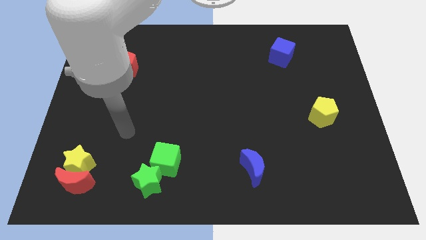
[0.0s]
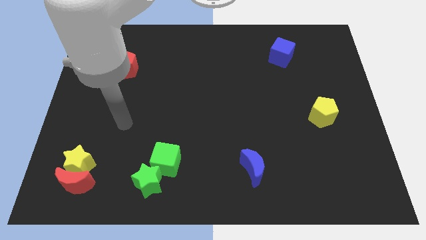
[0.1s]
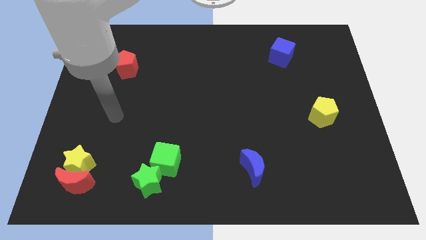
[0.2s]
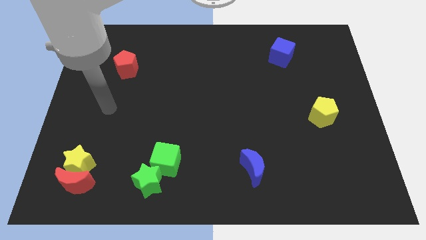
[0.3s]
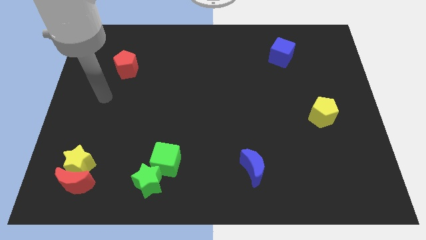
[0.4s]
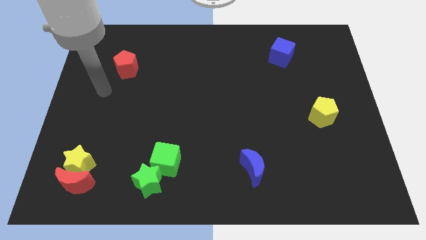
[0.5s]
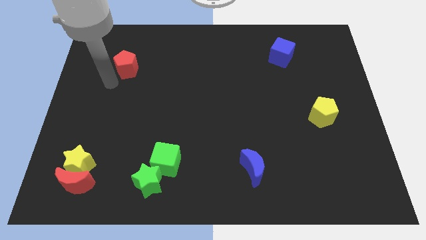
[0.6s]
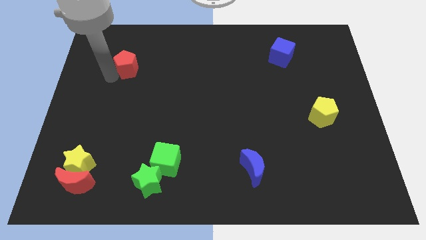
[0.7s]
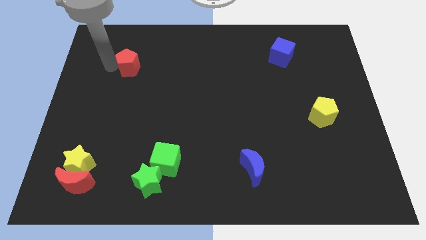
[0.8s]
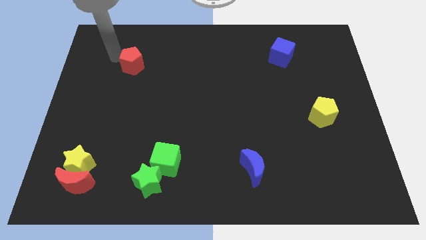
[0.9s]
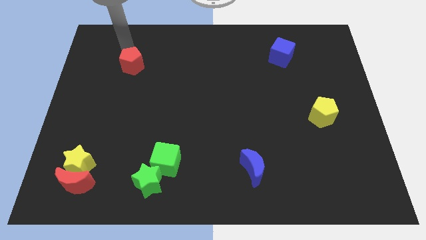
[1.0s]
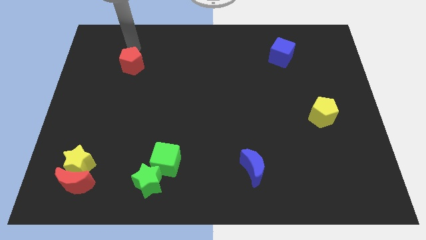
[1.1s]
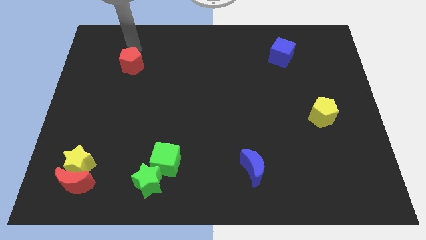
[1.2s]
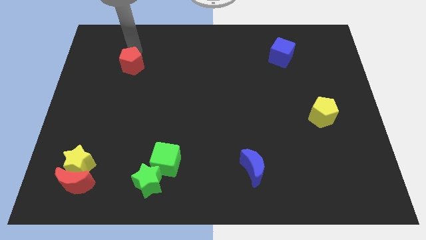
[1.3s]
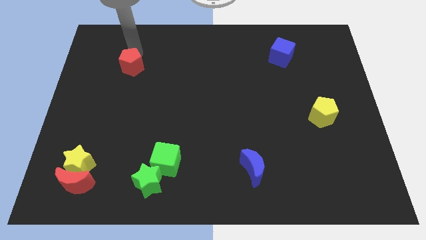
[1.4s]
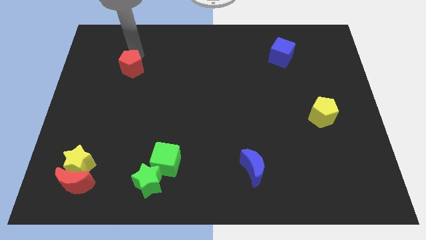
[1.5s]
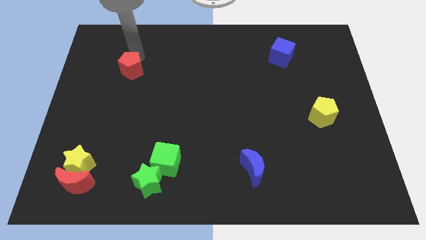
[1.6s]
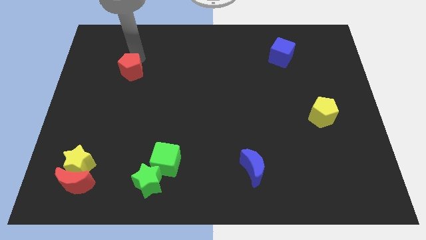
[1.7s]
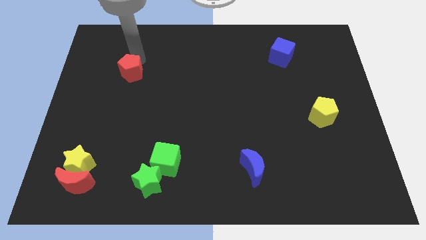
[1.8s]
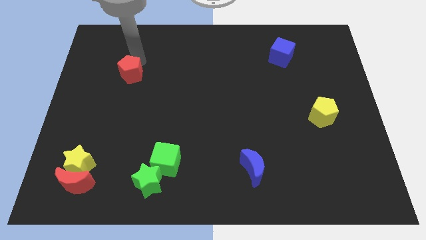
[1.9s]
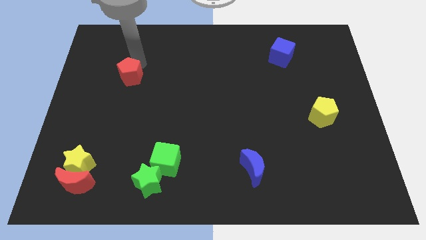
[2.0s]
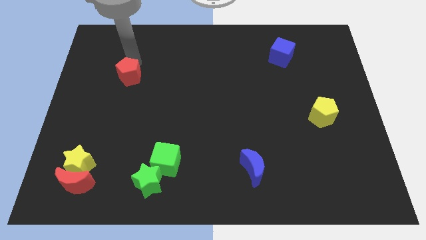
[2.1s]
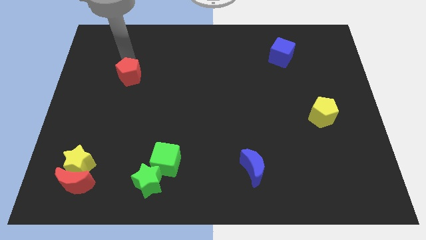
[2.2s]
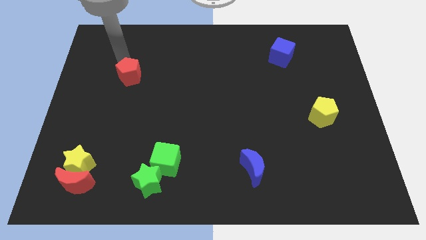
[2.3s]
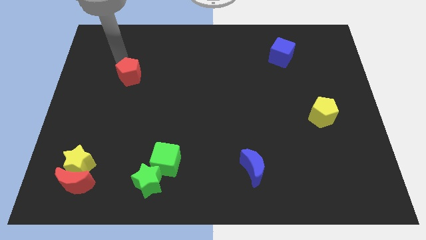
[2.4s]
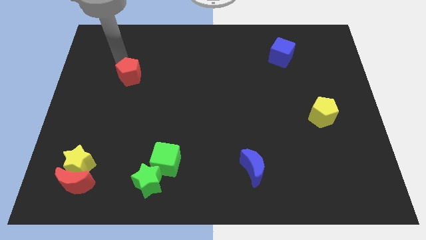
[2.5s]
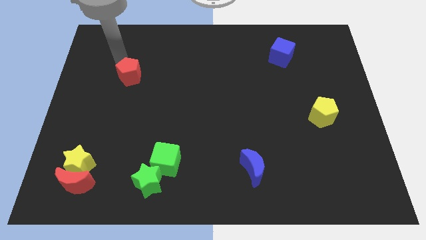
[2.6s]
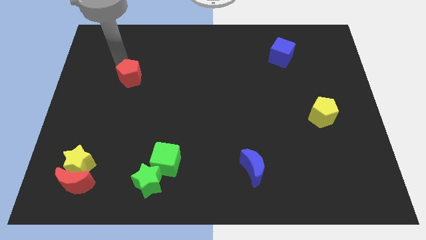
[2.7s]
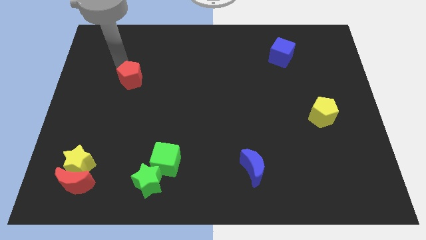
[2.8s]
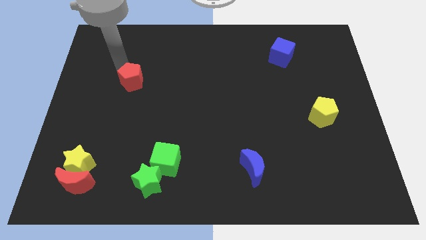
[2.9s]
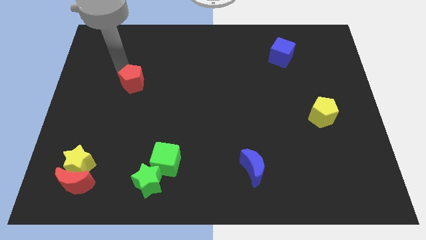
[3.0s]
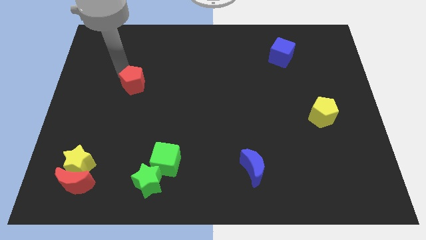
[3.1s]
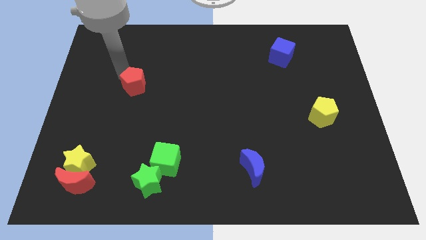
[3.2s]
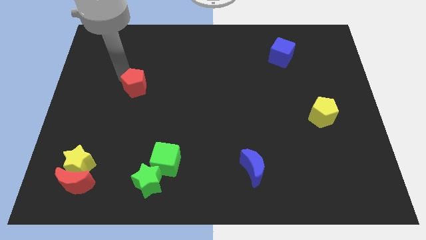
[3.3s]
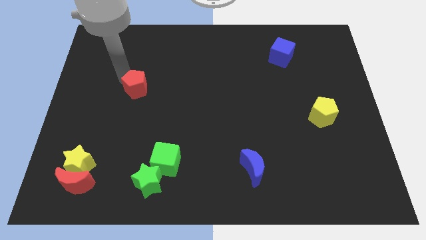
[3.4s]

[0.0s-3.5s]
slightly move the red pentagon down and to the right diagonally

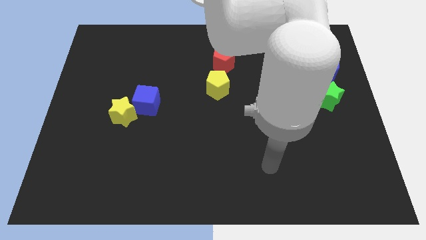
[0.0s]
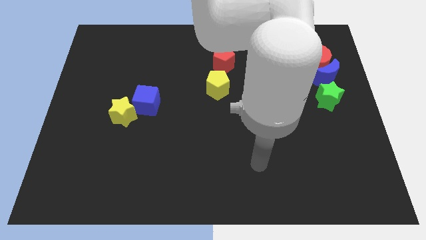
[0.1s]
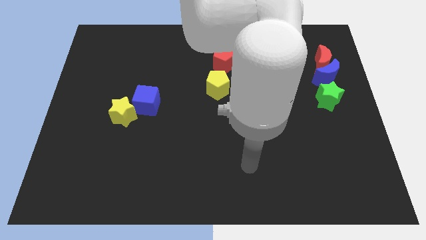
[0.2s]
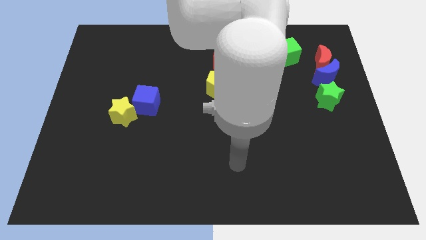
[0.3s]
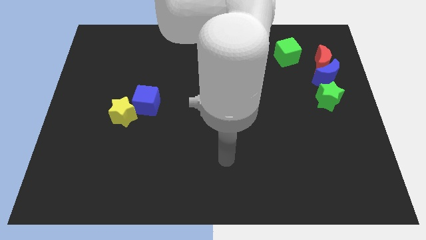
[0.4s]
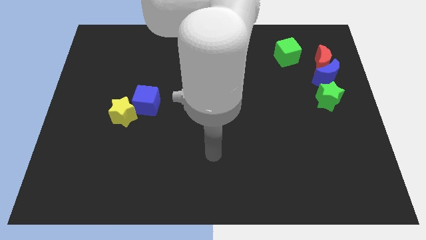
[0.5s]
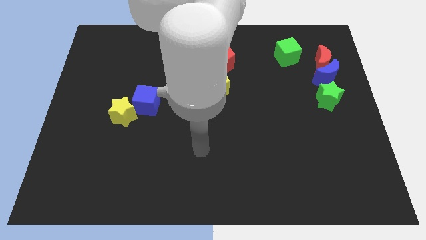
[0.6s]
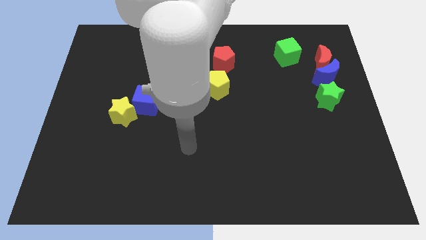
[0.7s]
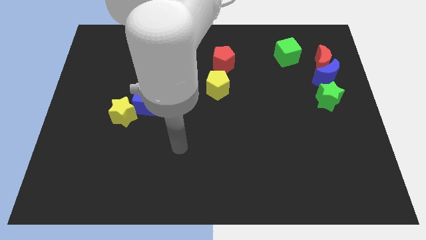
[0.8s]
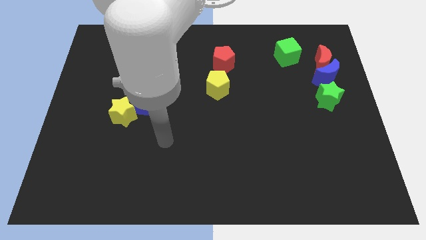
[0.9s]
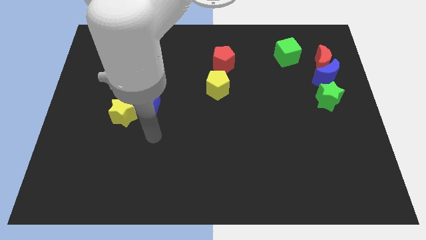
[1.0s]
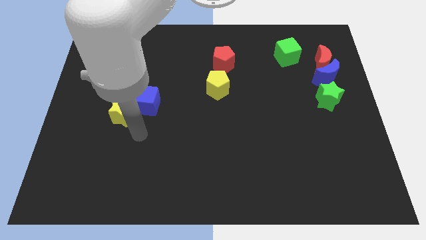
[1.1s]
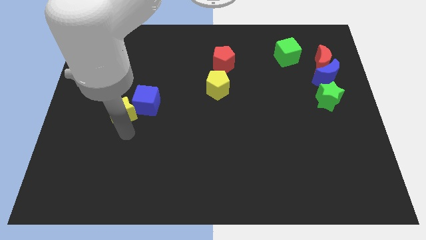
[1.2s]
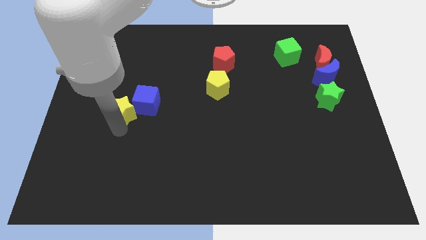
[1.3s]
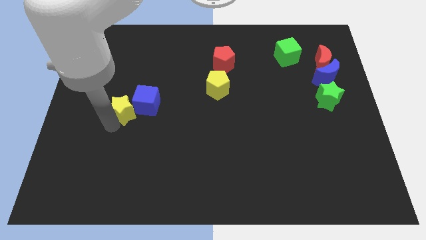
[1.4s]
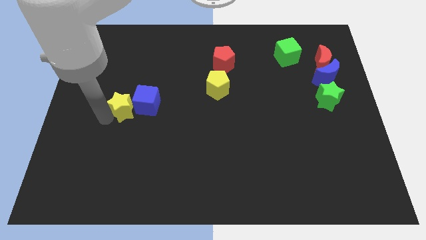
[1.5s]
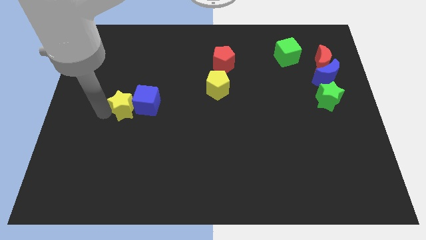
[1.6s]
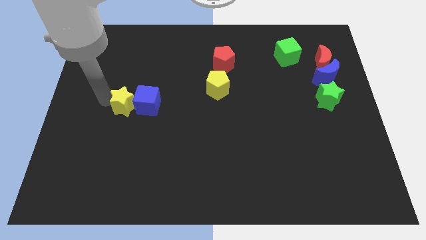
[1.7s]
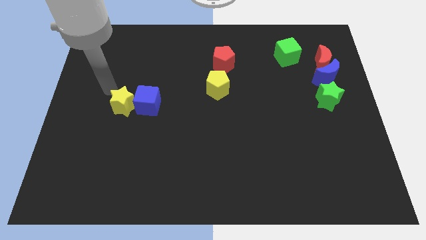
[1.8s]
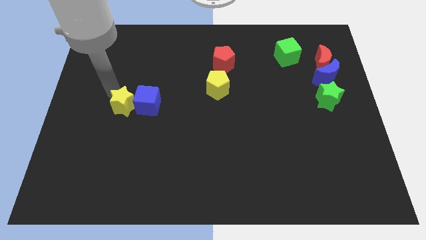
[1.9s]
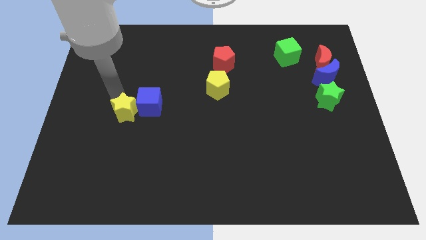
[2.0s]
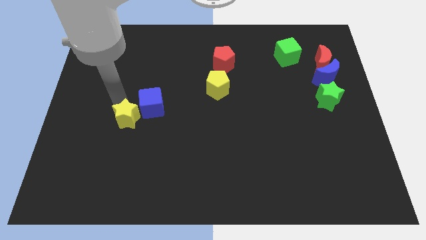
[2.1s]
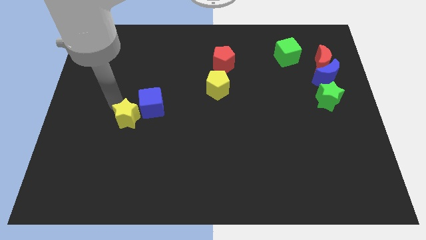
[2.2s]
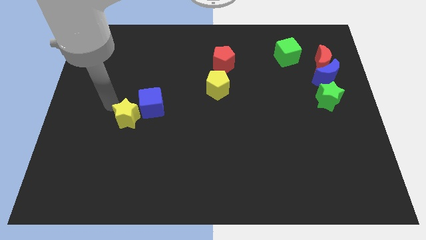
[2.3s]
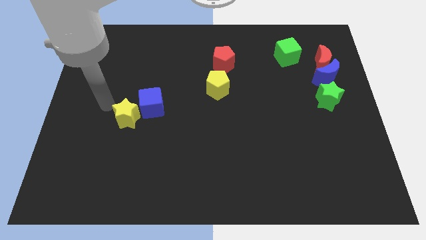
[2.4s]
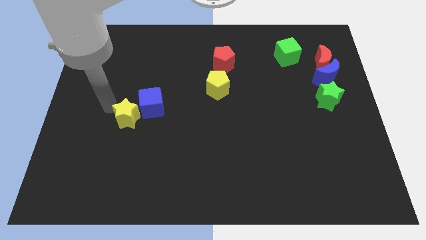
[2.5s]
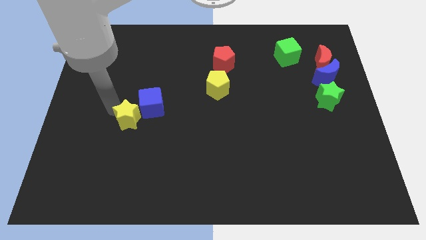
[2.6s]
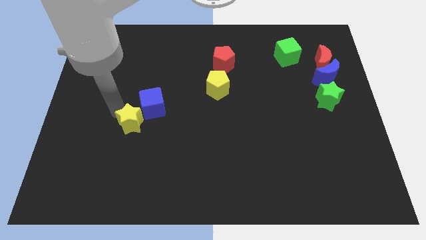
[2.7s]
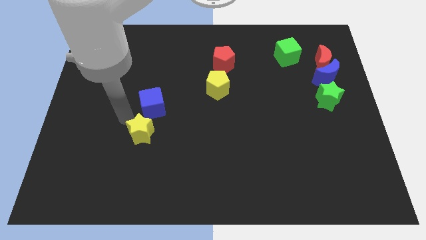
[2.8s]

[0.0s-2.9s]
move the yellow star down and then to the right a little

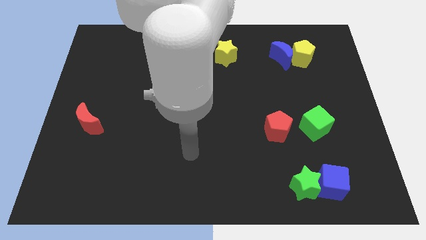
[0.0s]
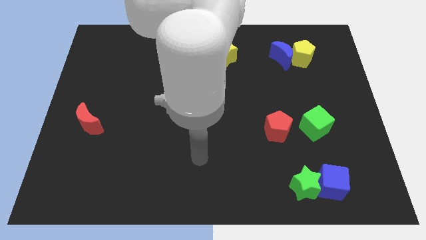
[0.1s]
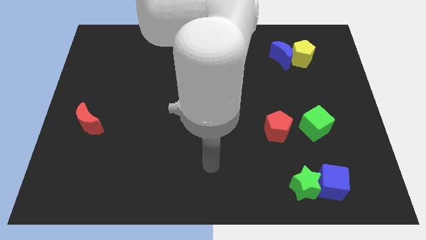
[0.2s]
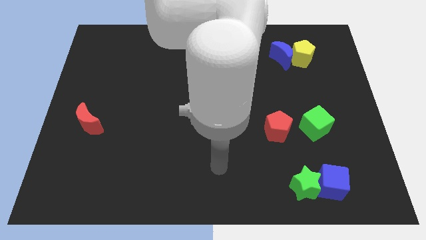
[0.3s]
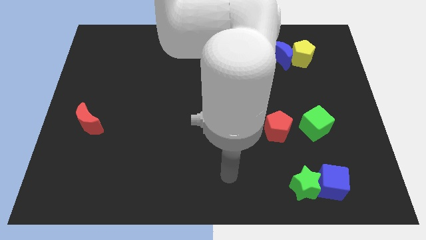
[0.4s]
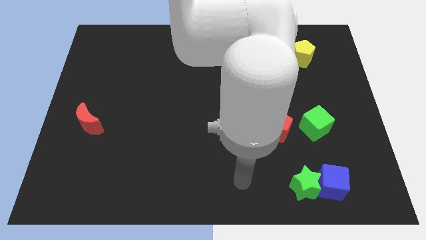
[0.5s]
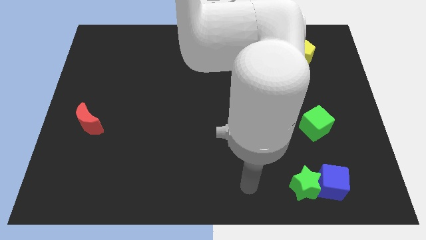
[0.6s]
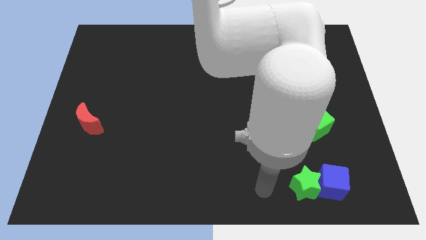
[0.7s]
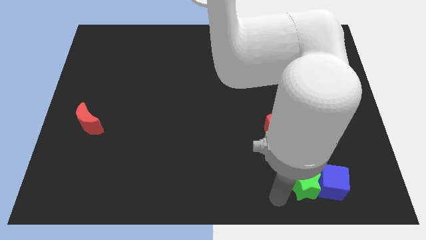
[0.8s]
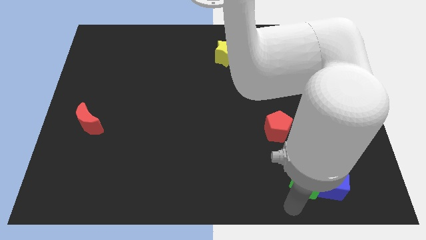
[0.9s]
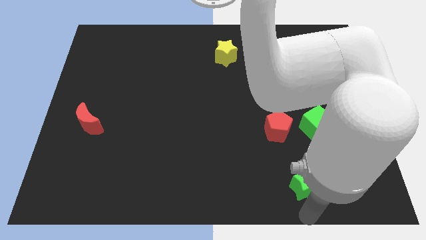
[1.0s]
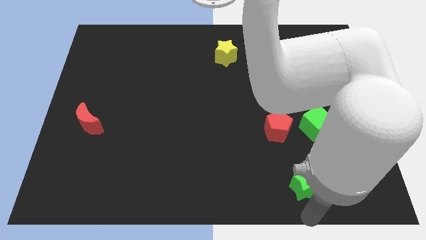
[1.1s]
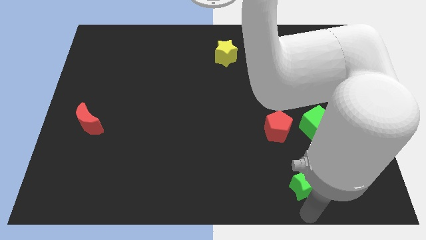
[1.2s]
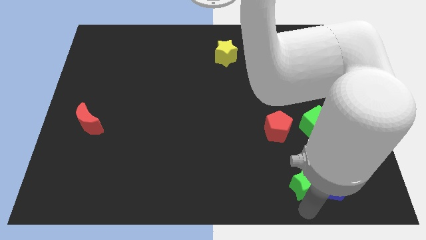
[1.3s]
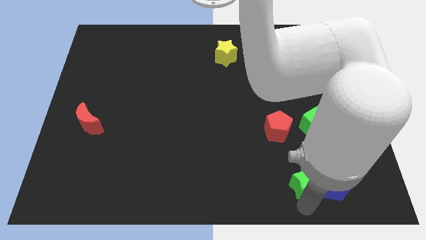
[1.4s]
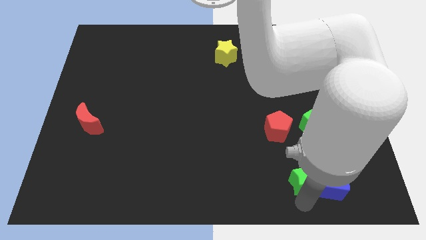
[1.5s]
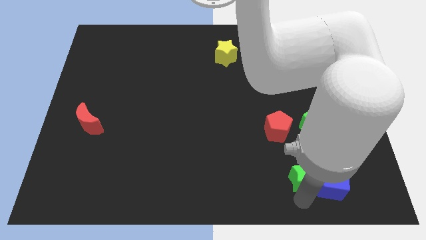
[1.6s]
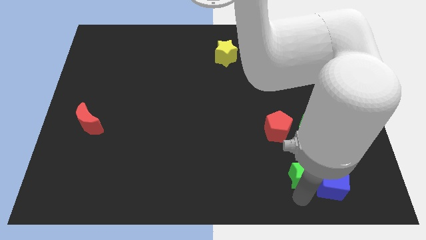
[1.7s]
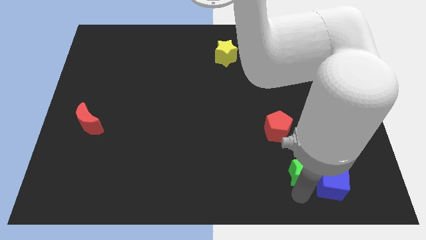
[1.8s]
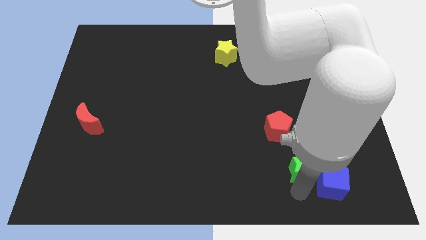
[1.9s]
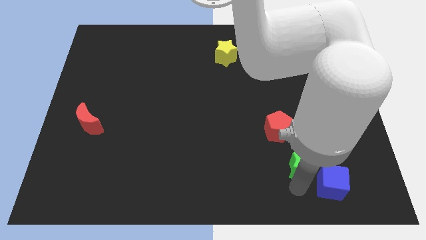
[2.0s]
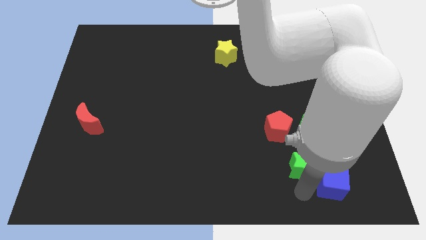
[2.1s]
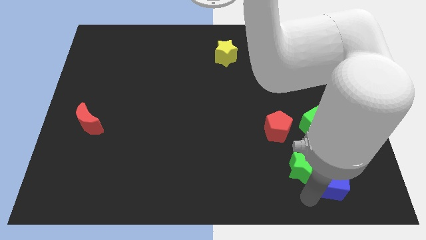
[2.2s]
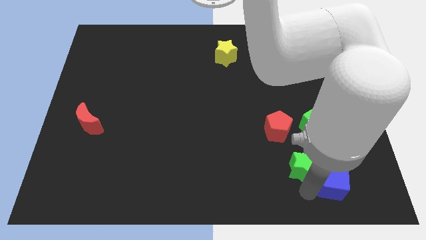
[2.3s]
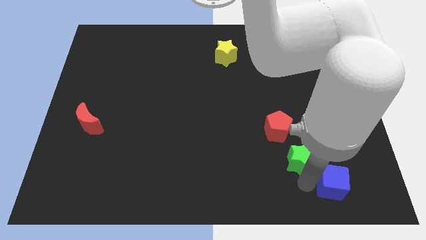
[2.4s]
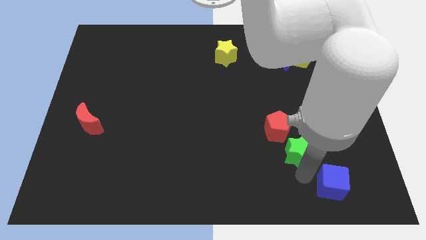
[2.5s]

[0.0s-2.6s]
push the green star a little bit up
